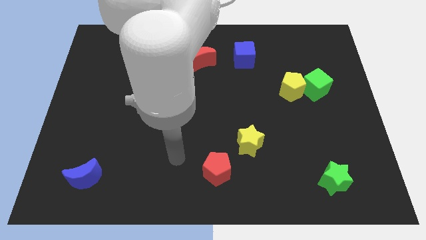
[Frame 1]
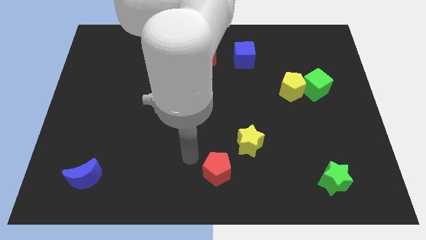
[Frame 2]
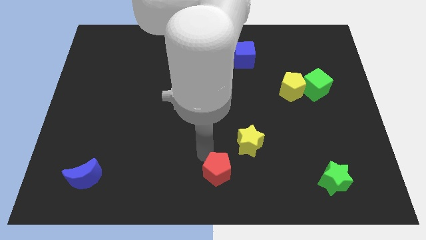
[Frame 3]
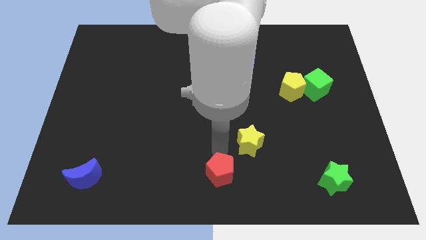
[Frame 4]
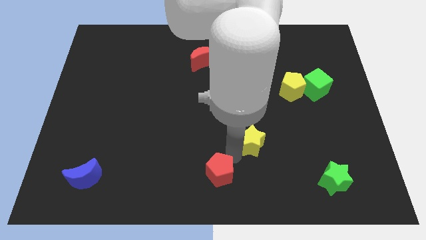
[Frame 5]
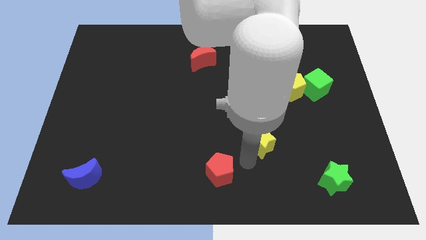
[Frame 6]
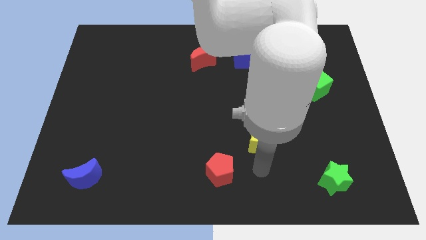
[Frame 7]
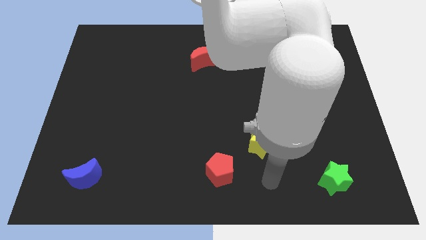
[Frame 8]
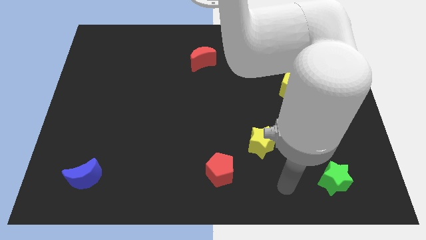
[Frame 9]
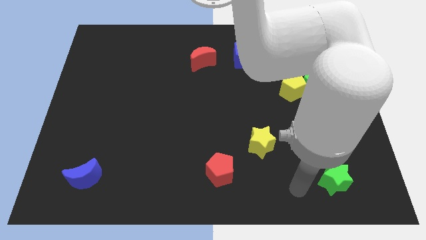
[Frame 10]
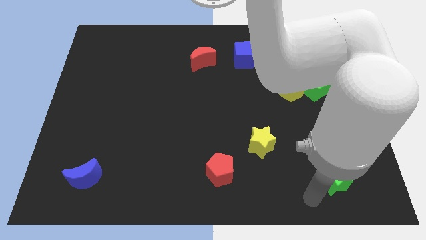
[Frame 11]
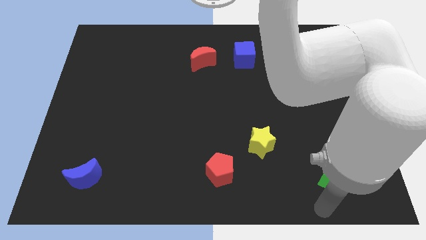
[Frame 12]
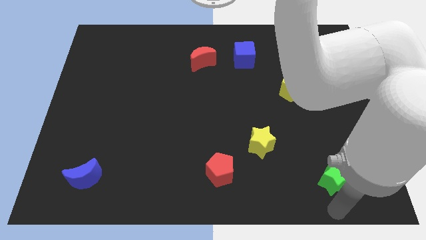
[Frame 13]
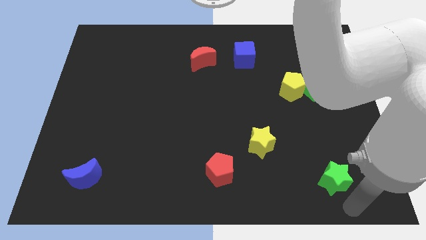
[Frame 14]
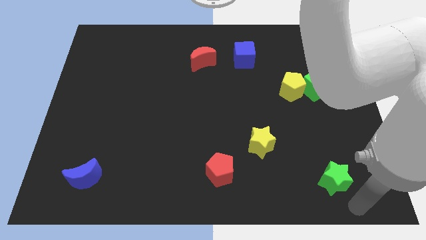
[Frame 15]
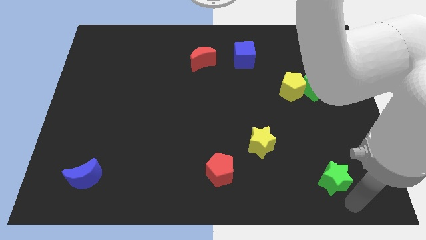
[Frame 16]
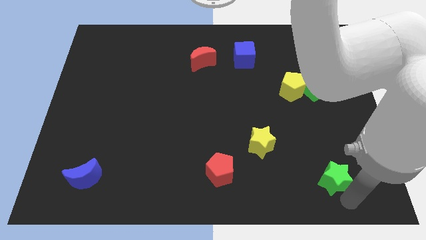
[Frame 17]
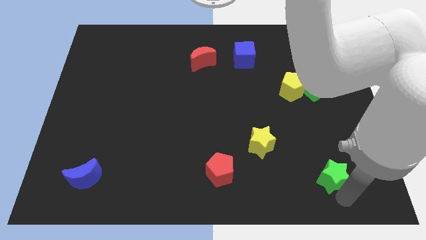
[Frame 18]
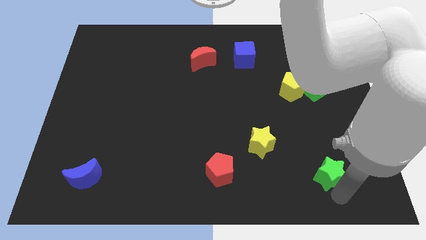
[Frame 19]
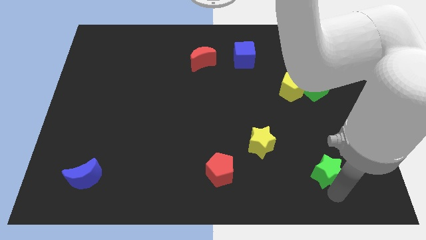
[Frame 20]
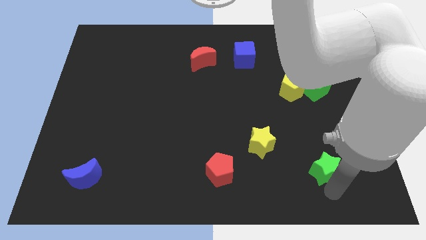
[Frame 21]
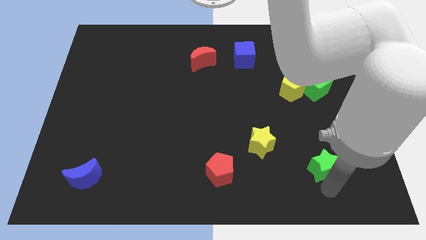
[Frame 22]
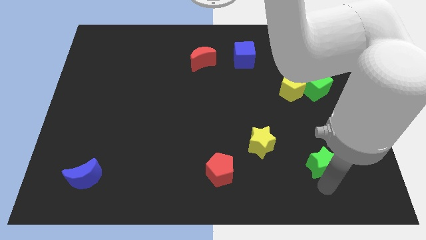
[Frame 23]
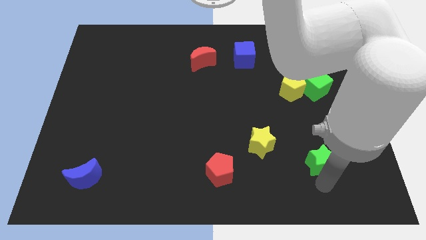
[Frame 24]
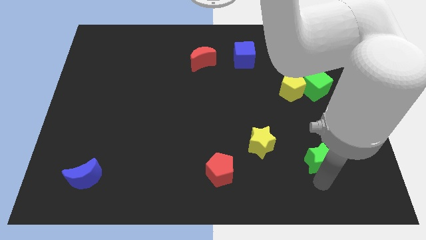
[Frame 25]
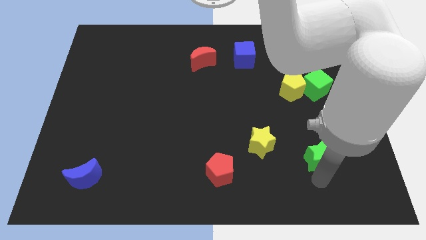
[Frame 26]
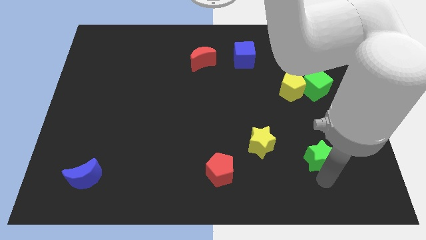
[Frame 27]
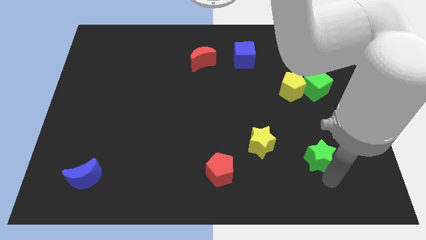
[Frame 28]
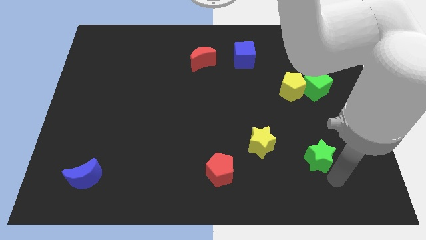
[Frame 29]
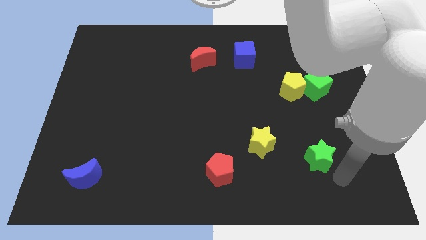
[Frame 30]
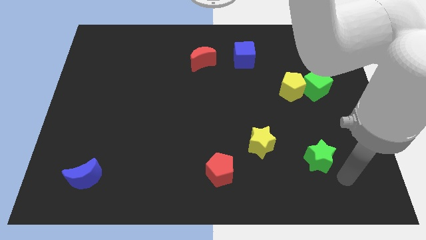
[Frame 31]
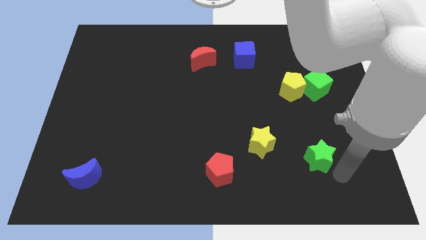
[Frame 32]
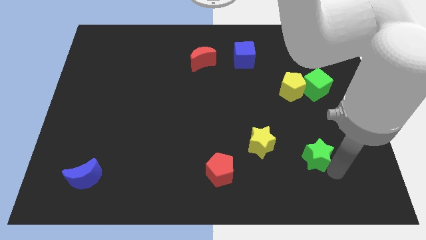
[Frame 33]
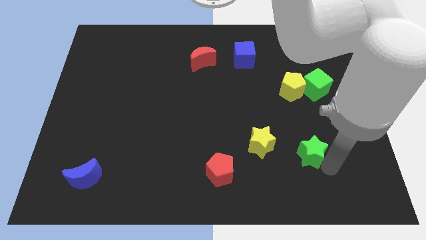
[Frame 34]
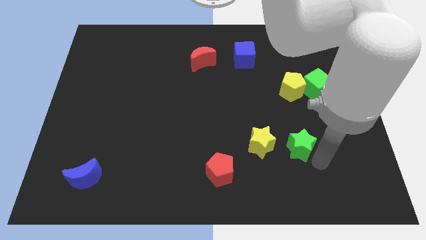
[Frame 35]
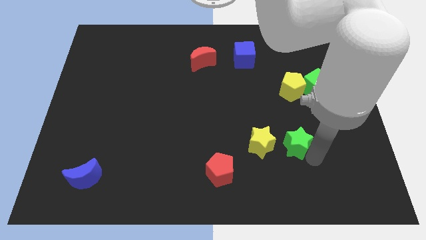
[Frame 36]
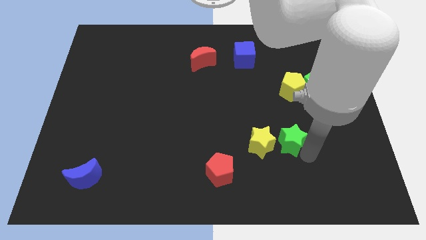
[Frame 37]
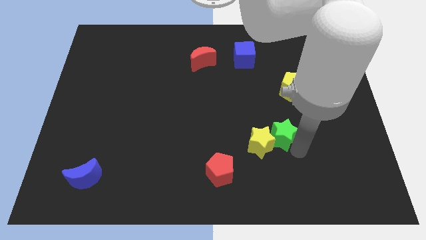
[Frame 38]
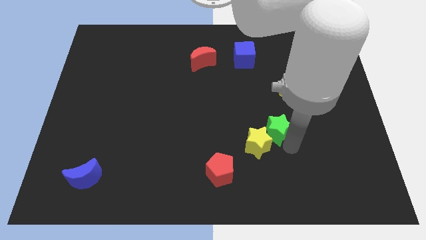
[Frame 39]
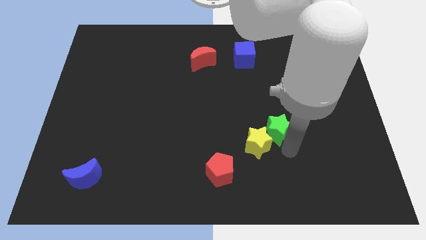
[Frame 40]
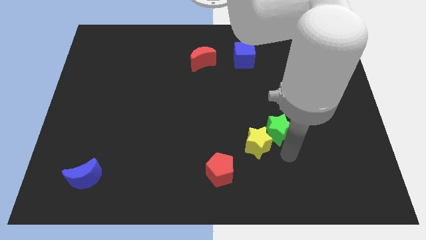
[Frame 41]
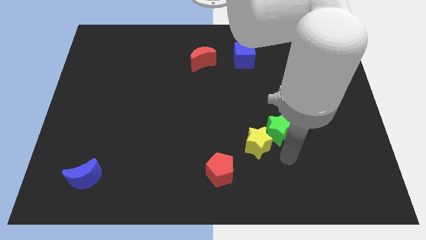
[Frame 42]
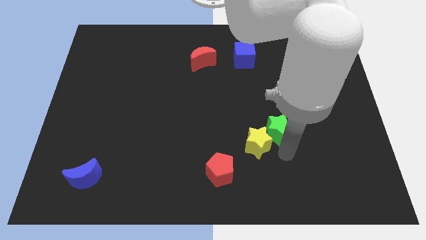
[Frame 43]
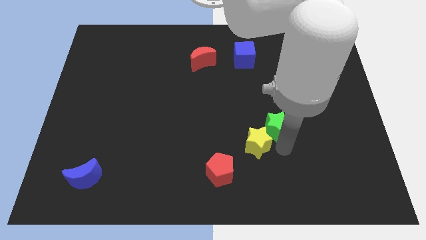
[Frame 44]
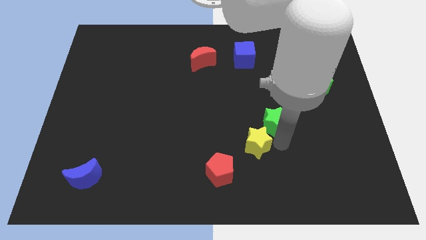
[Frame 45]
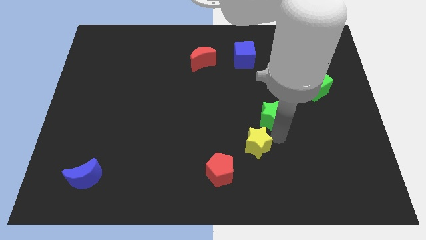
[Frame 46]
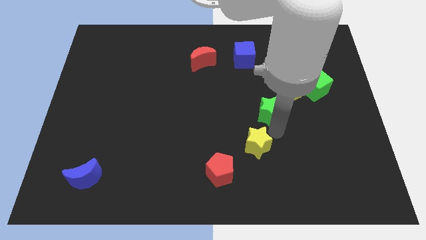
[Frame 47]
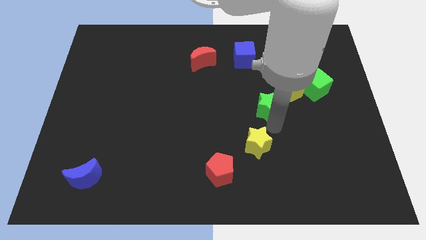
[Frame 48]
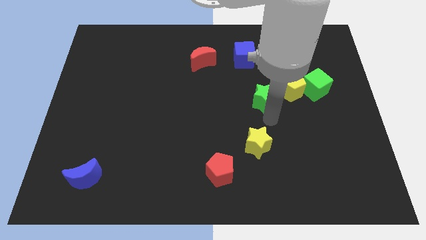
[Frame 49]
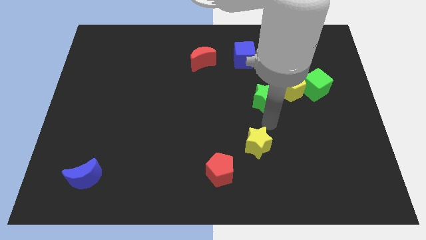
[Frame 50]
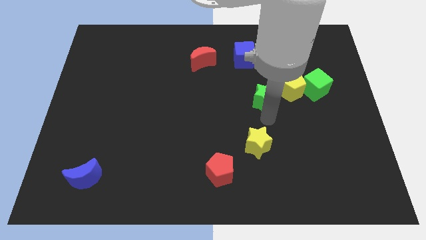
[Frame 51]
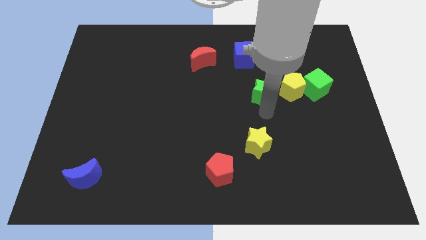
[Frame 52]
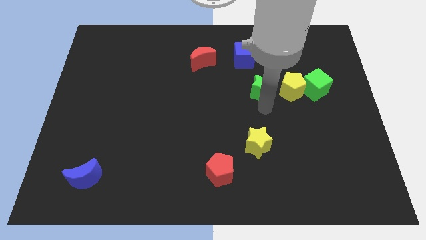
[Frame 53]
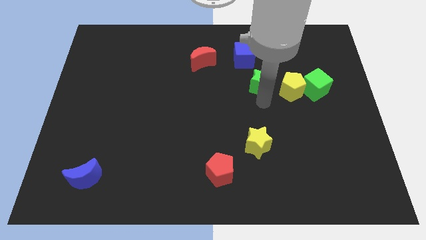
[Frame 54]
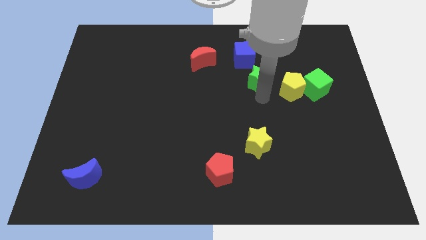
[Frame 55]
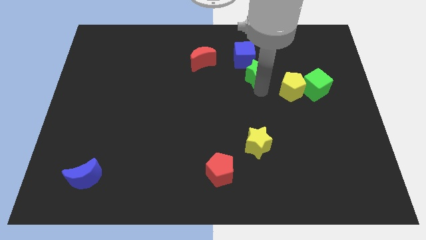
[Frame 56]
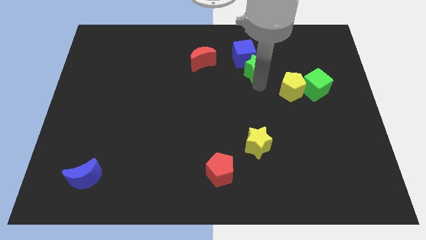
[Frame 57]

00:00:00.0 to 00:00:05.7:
slide the green star to the blue cube

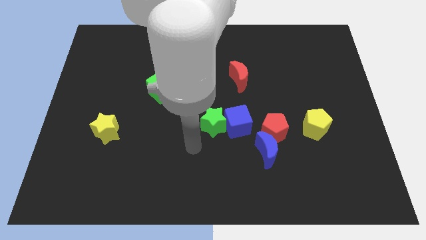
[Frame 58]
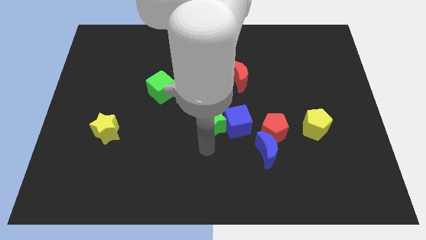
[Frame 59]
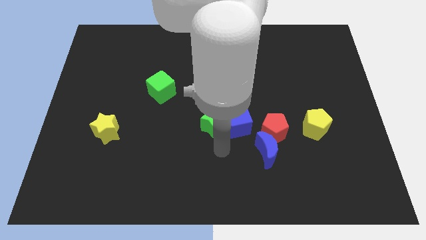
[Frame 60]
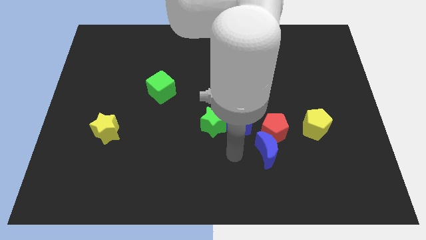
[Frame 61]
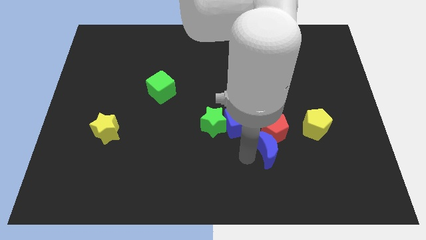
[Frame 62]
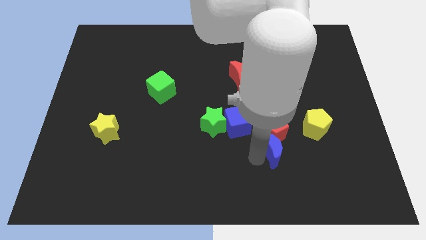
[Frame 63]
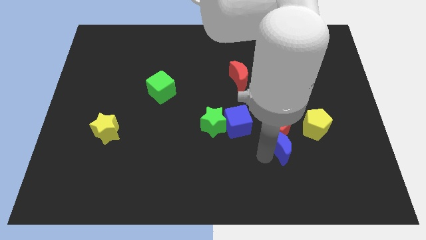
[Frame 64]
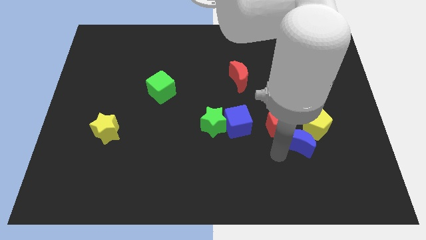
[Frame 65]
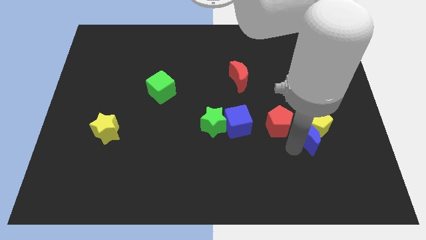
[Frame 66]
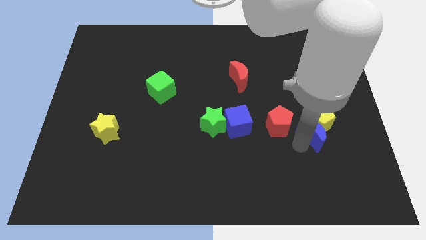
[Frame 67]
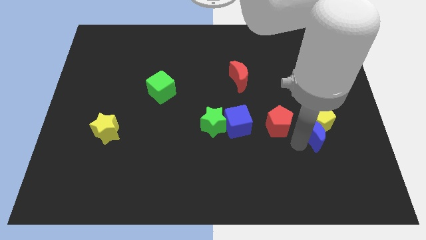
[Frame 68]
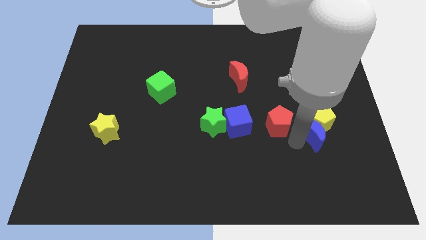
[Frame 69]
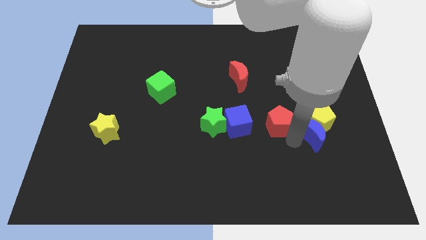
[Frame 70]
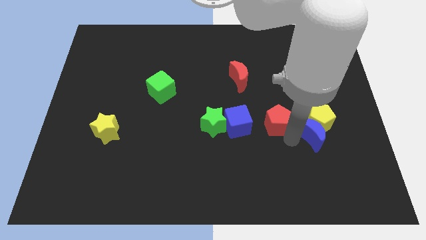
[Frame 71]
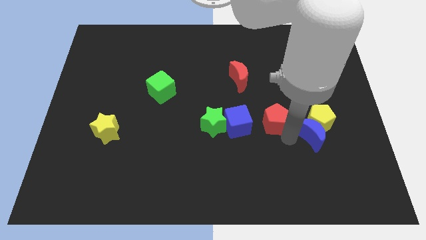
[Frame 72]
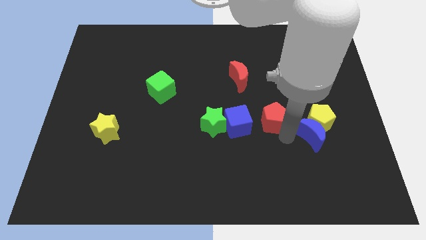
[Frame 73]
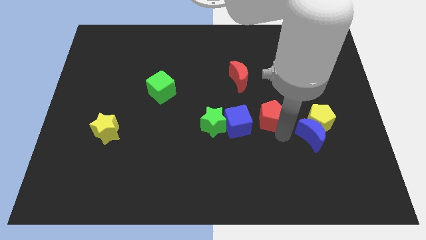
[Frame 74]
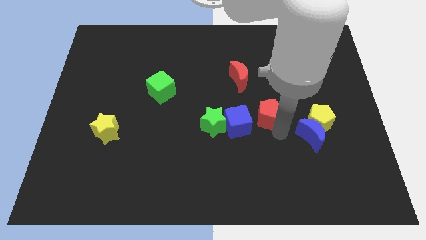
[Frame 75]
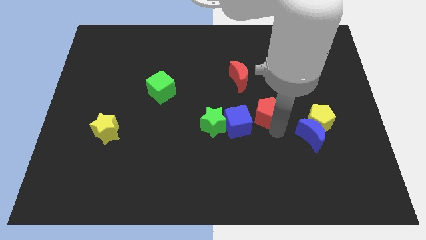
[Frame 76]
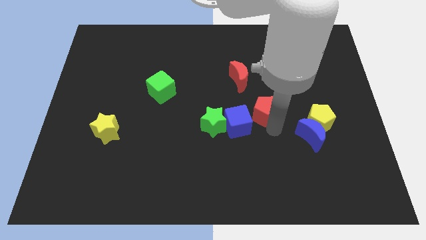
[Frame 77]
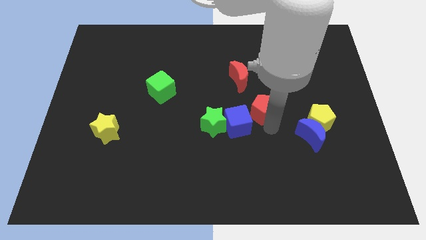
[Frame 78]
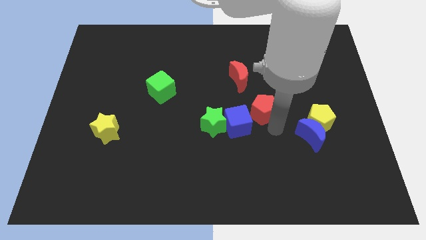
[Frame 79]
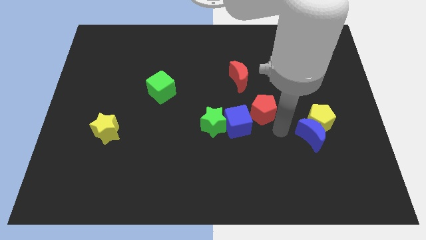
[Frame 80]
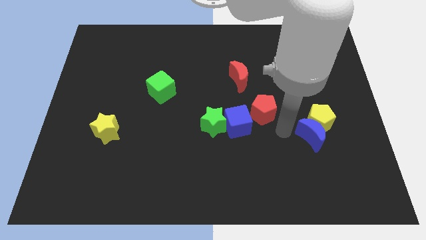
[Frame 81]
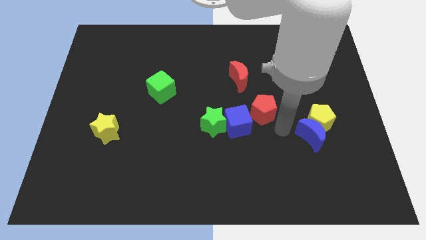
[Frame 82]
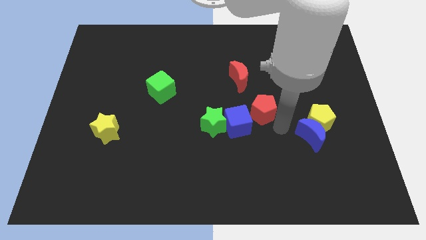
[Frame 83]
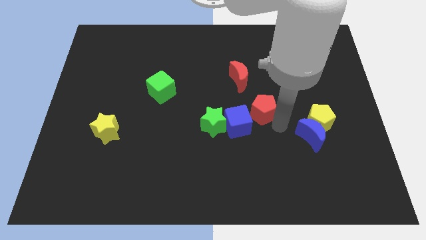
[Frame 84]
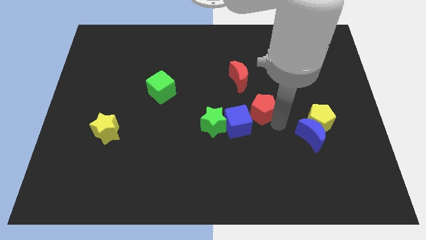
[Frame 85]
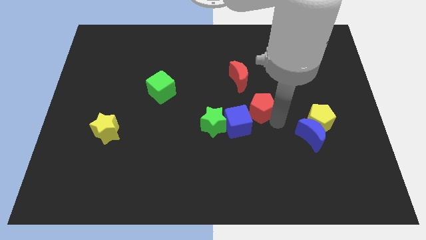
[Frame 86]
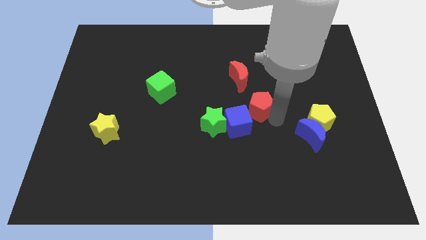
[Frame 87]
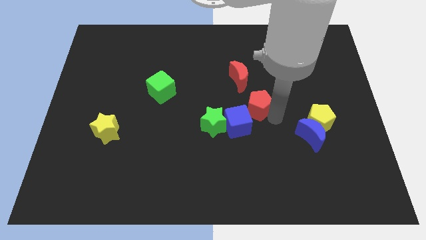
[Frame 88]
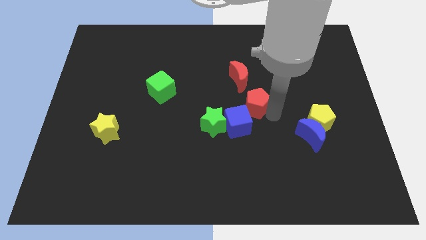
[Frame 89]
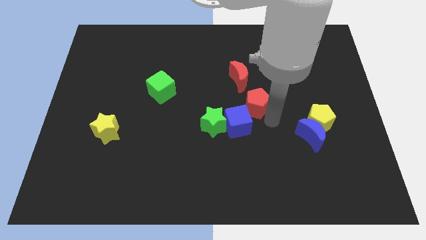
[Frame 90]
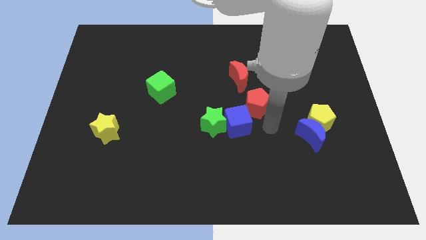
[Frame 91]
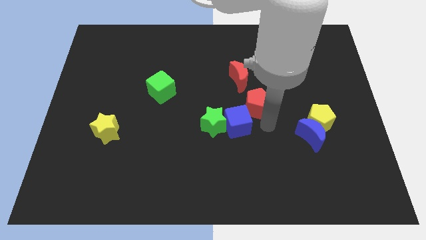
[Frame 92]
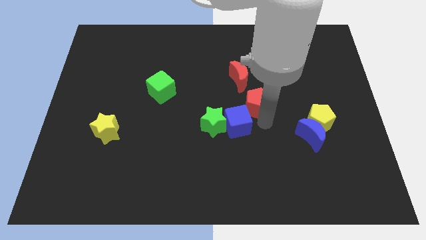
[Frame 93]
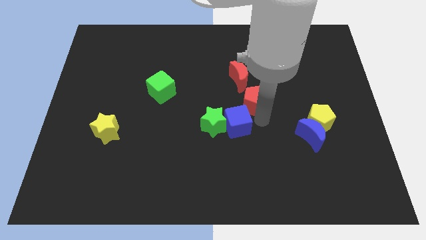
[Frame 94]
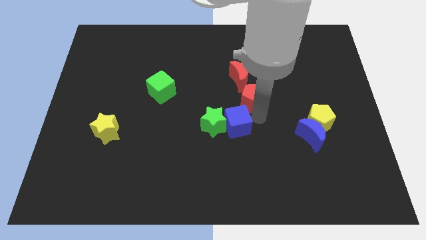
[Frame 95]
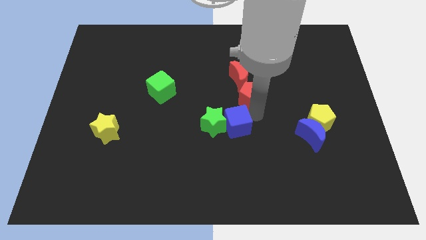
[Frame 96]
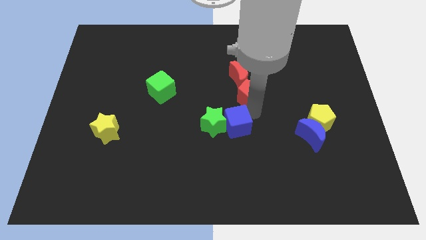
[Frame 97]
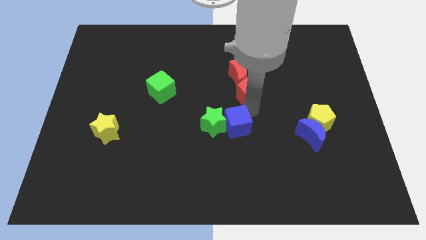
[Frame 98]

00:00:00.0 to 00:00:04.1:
push the red pentagon towards the red moon
